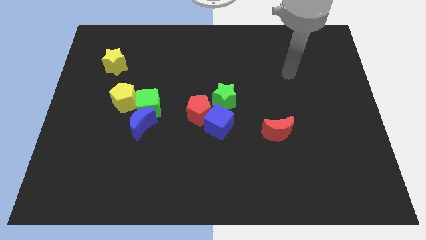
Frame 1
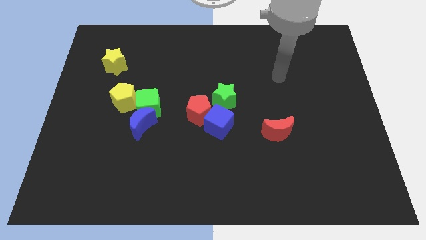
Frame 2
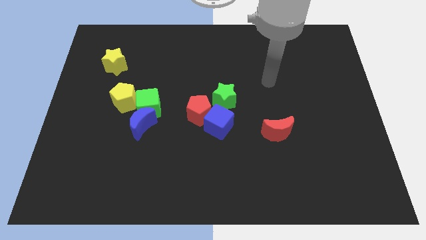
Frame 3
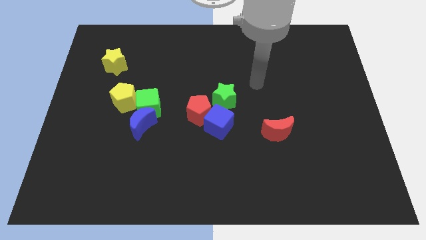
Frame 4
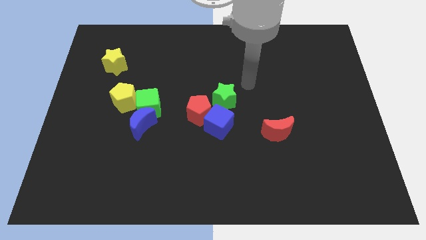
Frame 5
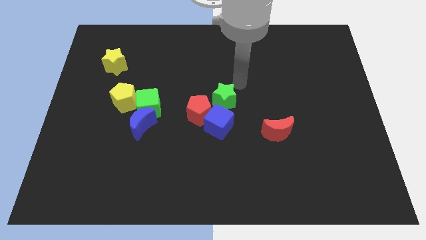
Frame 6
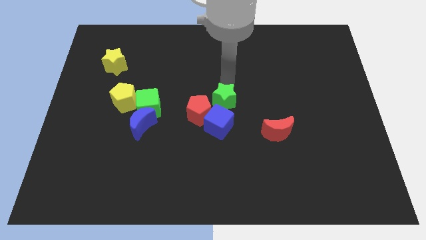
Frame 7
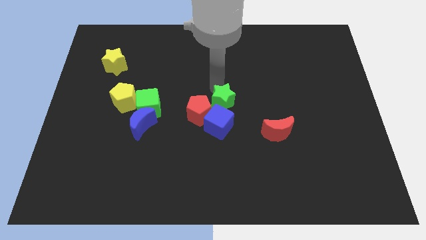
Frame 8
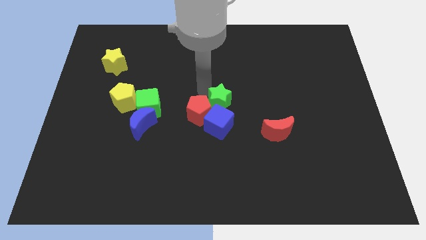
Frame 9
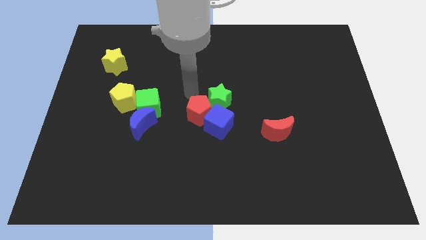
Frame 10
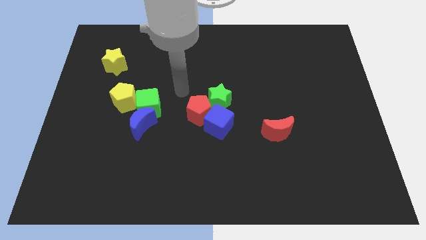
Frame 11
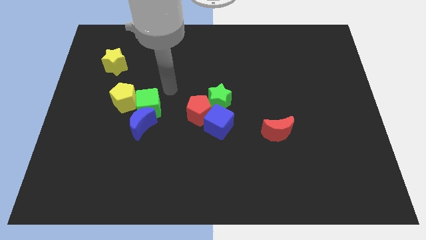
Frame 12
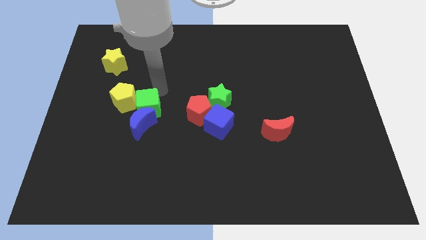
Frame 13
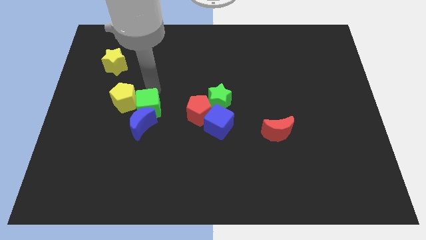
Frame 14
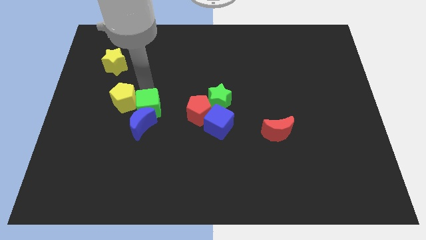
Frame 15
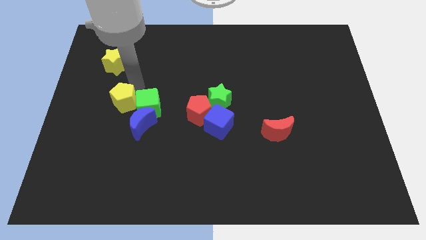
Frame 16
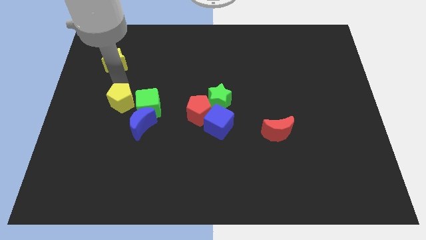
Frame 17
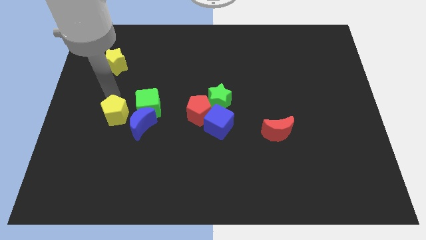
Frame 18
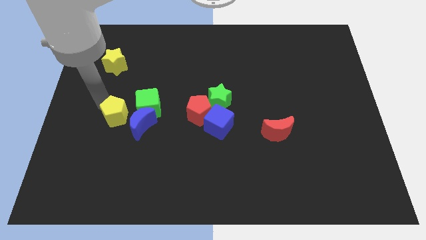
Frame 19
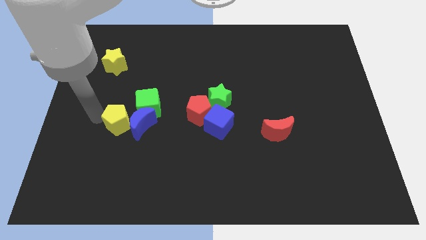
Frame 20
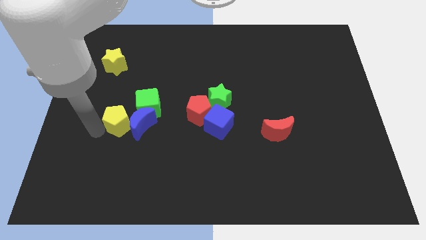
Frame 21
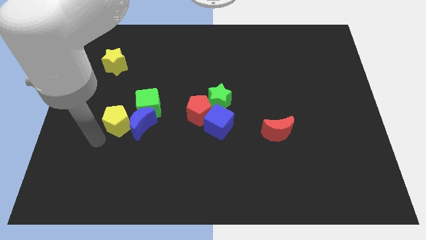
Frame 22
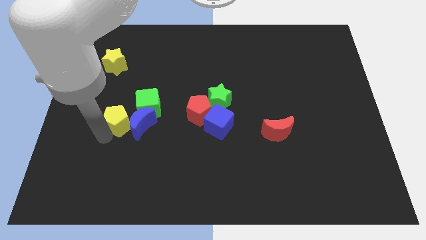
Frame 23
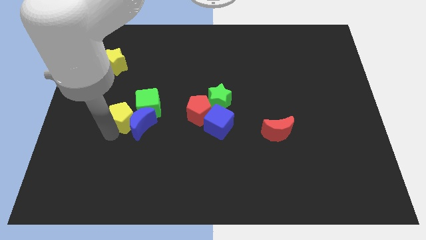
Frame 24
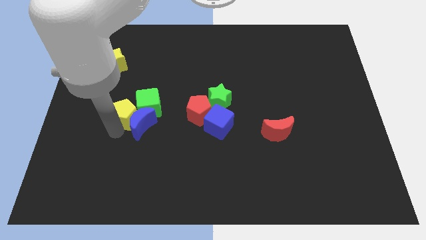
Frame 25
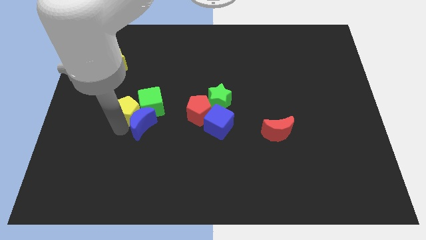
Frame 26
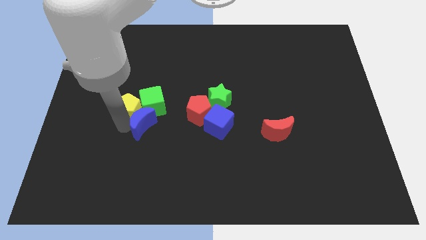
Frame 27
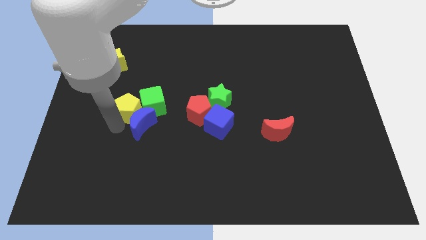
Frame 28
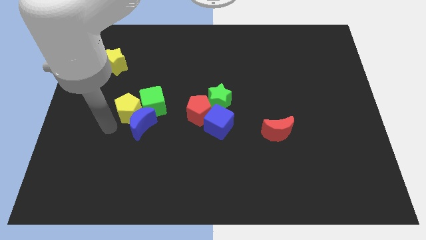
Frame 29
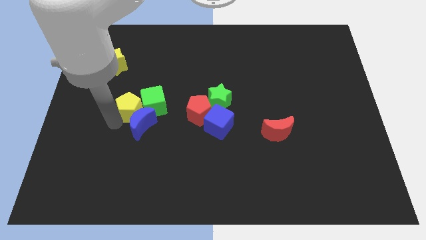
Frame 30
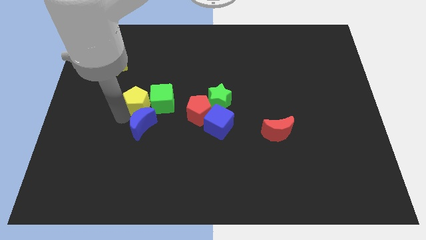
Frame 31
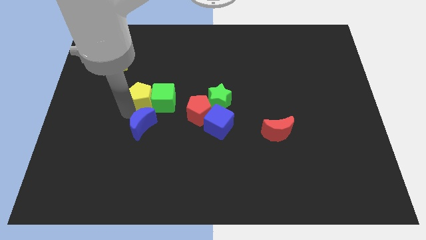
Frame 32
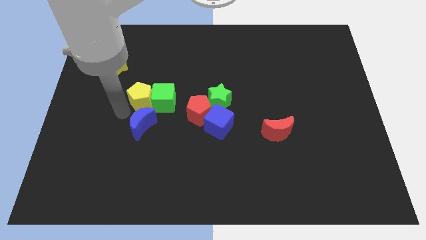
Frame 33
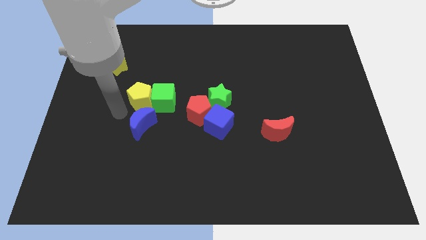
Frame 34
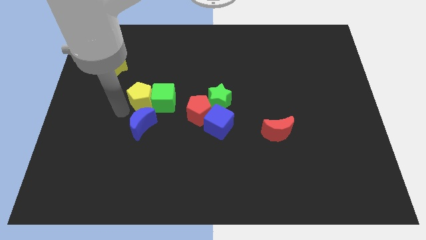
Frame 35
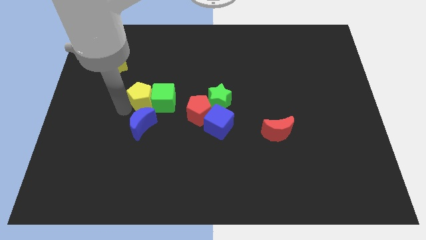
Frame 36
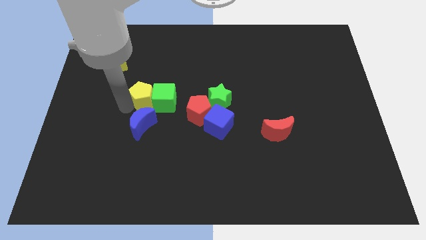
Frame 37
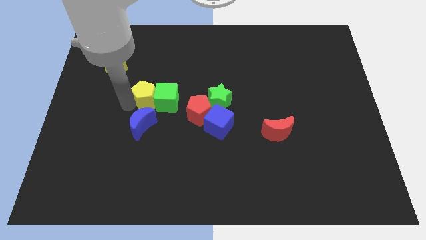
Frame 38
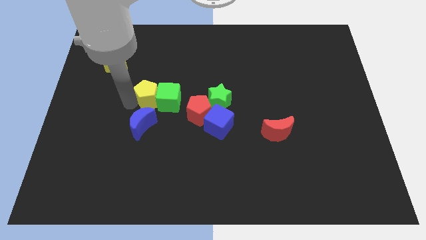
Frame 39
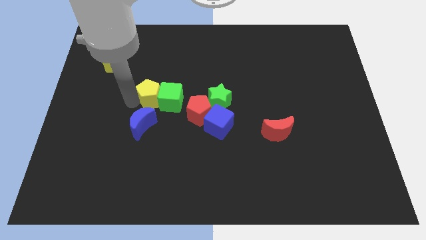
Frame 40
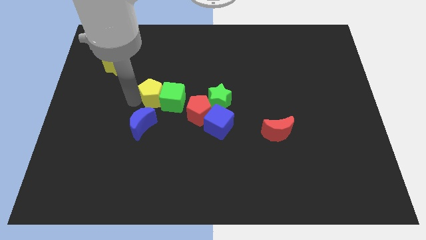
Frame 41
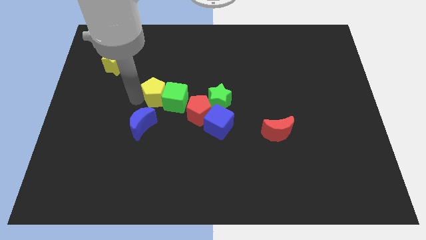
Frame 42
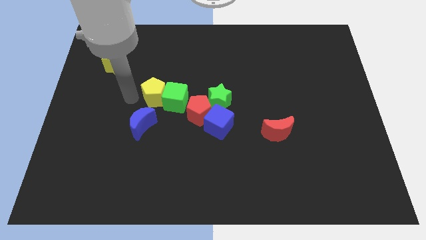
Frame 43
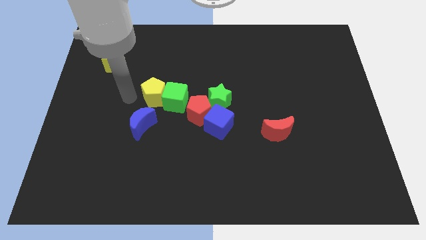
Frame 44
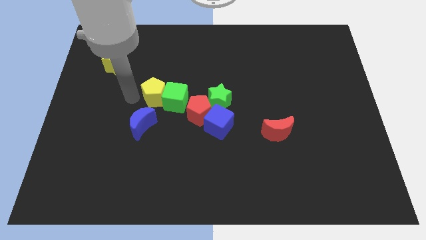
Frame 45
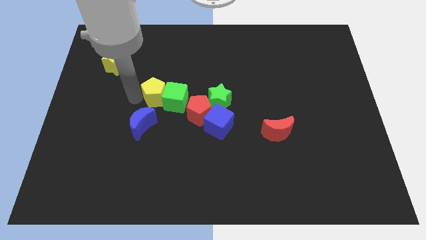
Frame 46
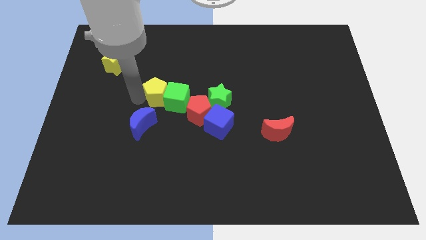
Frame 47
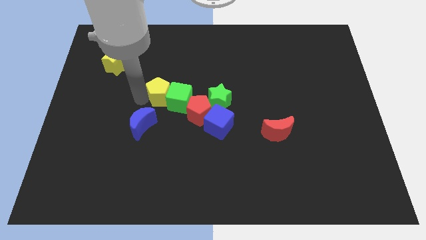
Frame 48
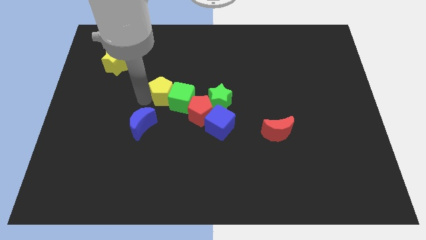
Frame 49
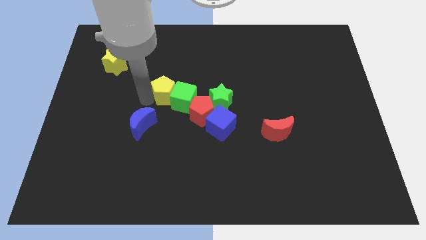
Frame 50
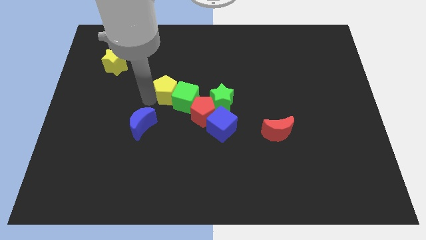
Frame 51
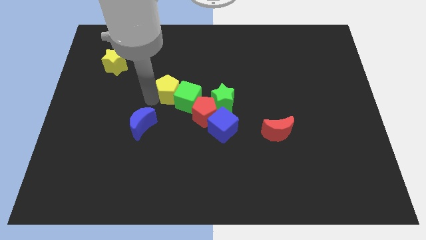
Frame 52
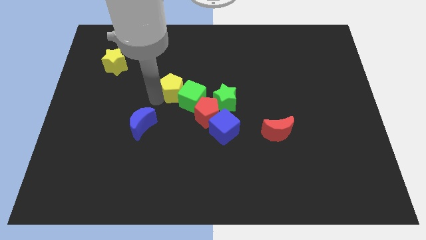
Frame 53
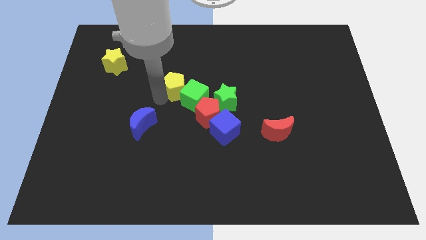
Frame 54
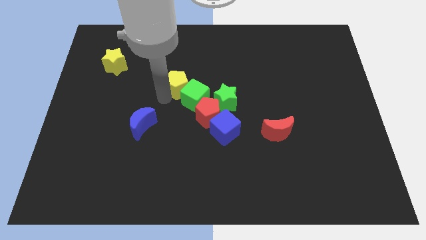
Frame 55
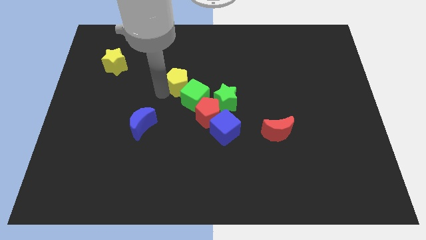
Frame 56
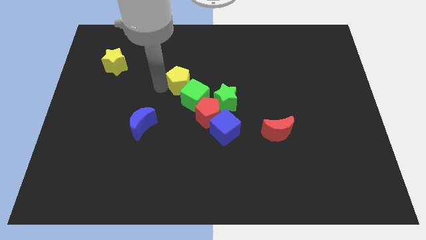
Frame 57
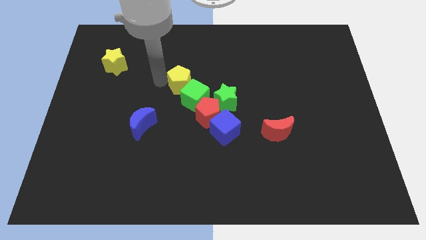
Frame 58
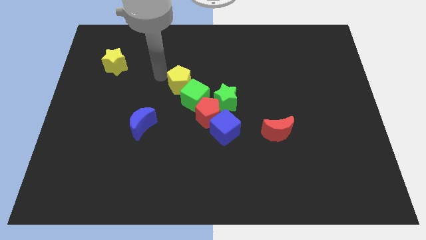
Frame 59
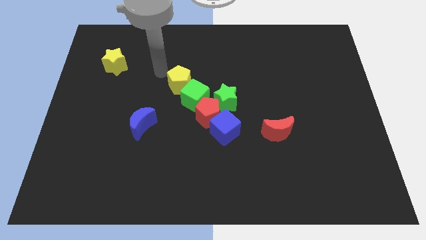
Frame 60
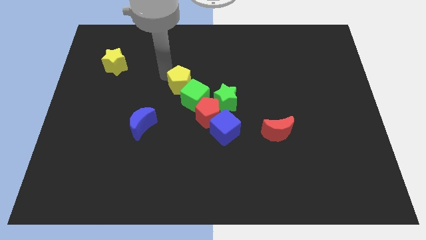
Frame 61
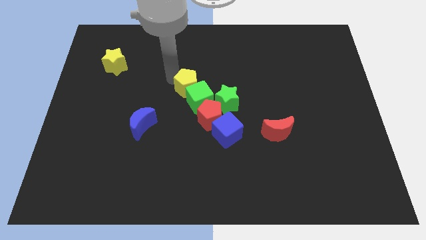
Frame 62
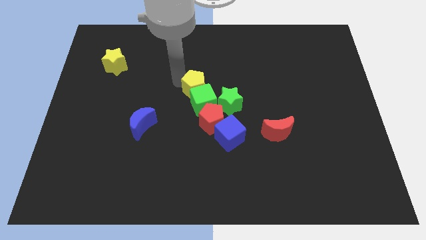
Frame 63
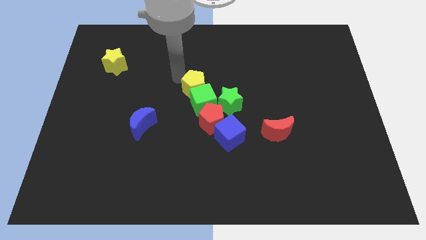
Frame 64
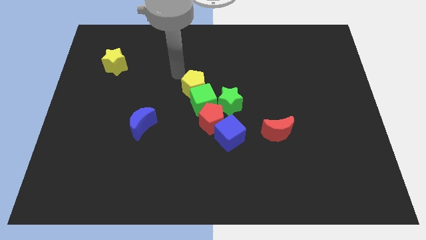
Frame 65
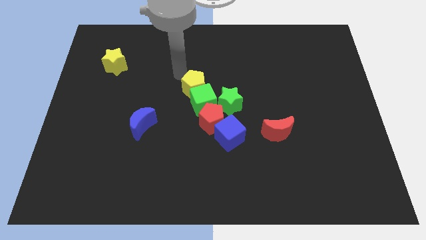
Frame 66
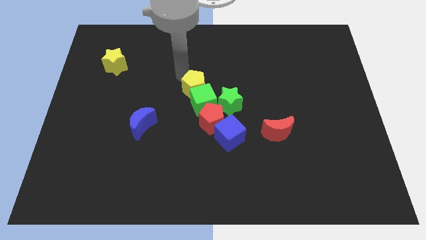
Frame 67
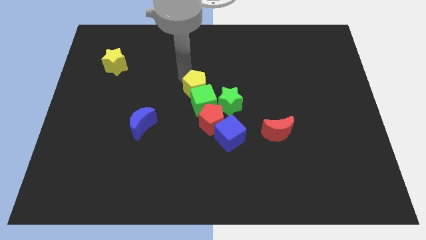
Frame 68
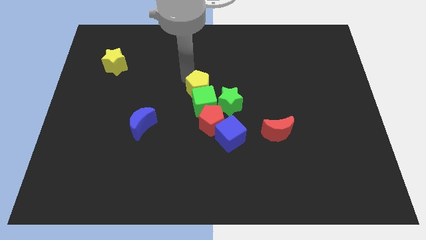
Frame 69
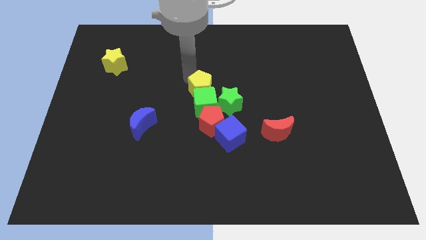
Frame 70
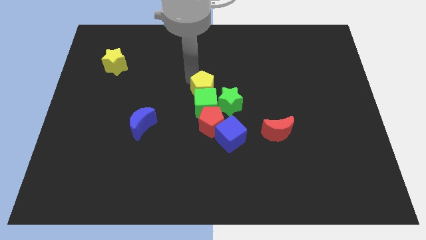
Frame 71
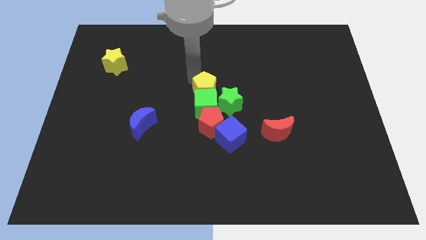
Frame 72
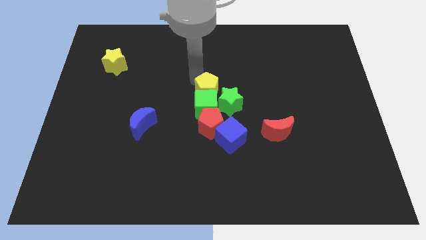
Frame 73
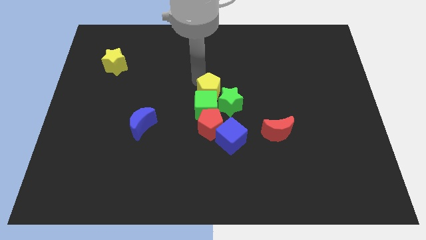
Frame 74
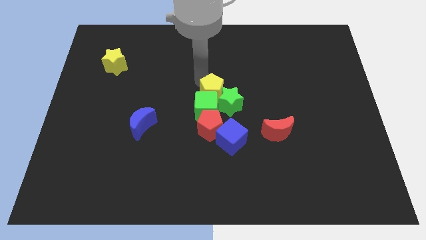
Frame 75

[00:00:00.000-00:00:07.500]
move the yellow pentagon close to the green star
